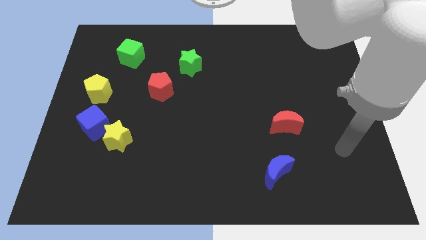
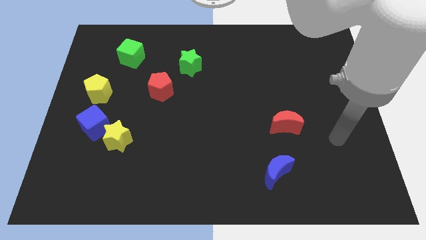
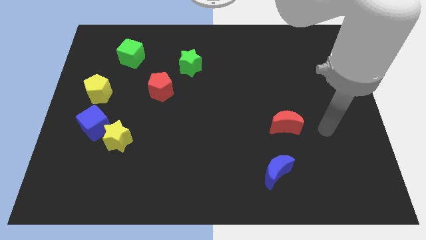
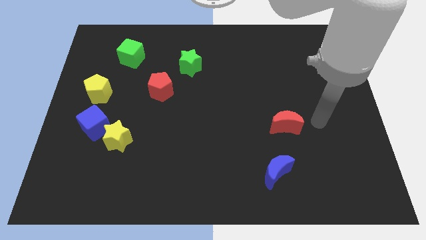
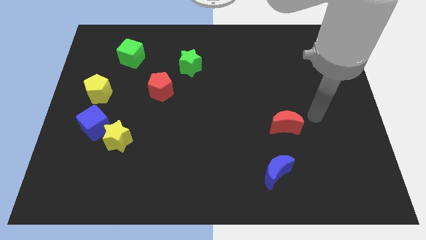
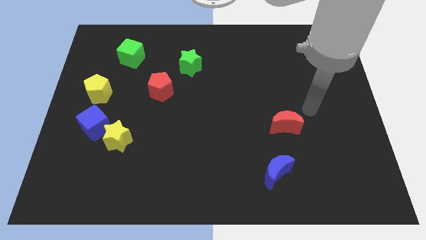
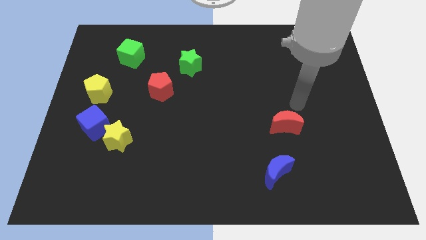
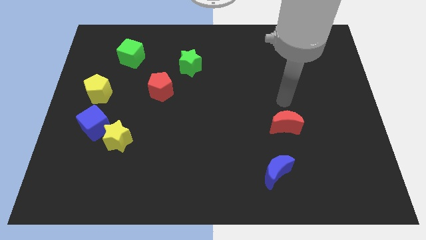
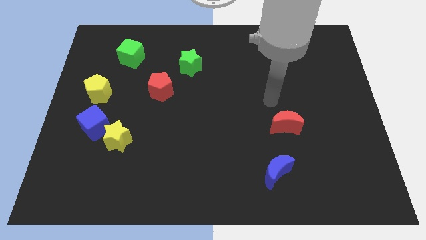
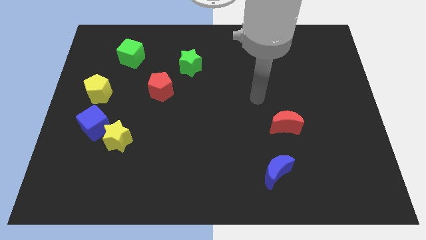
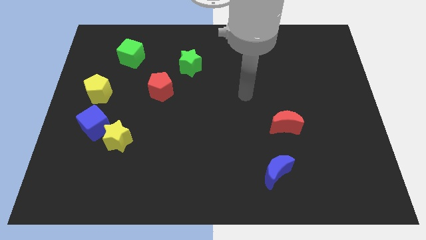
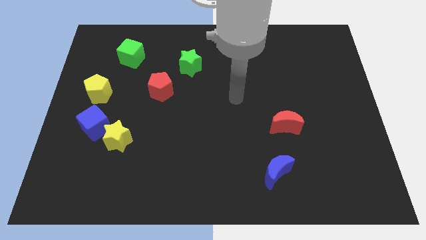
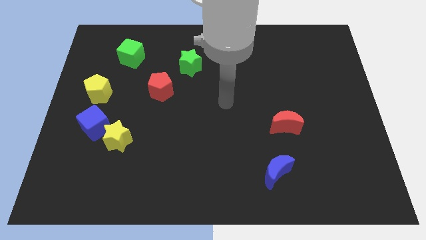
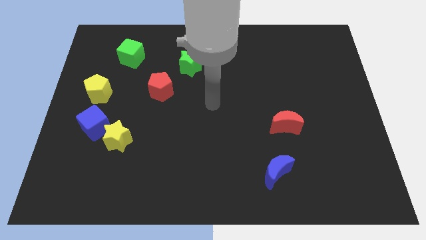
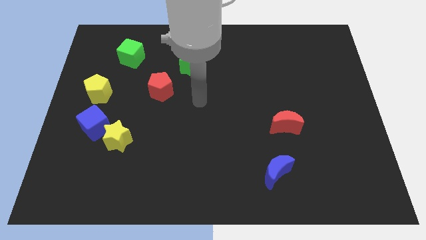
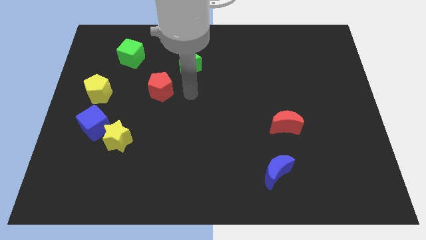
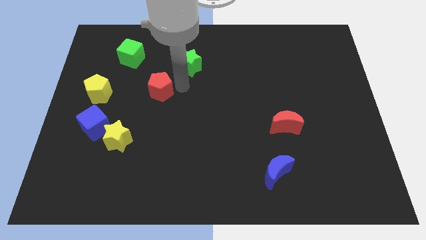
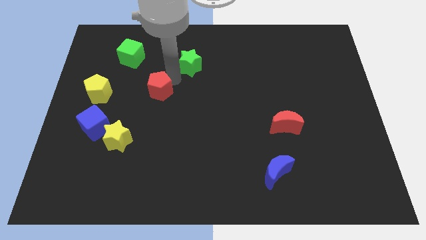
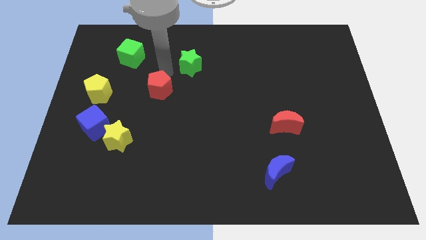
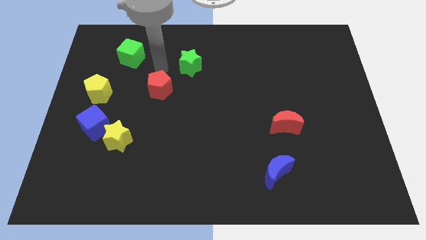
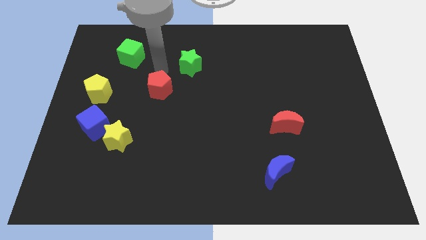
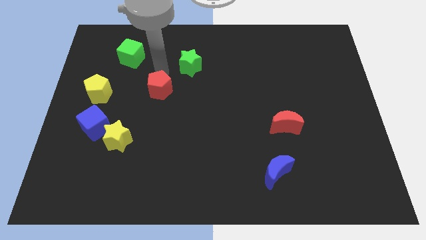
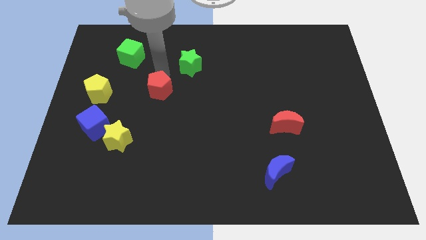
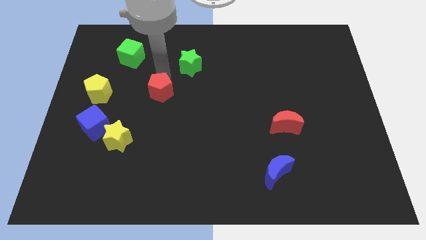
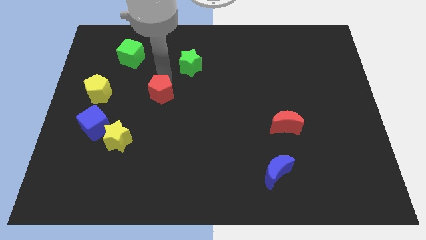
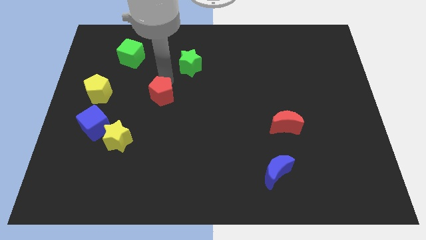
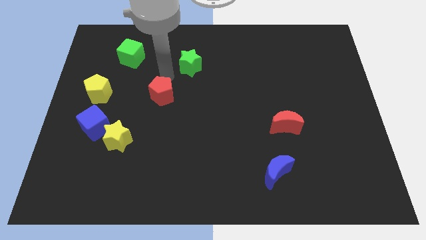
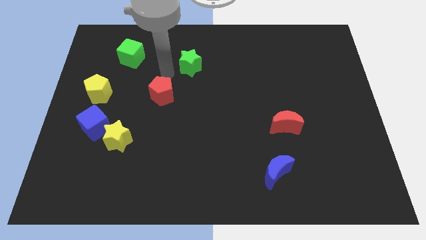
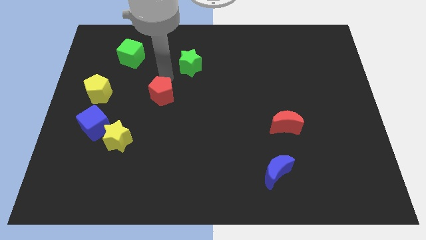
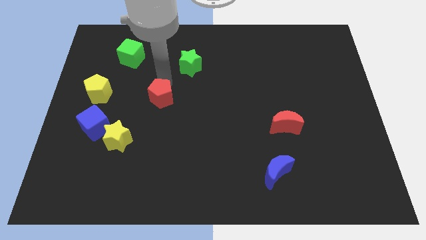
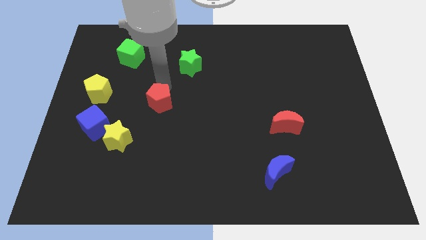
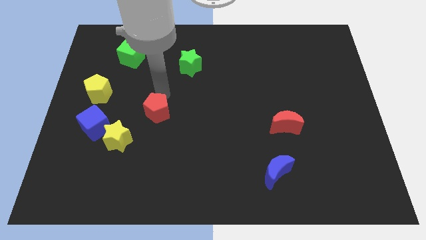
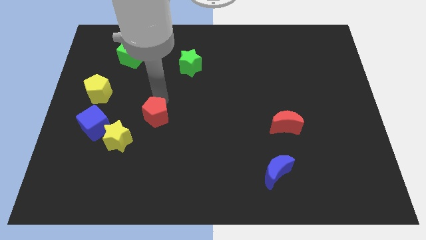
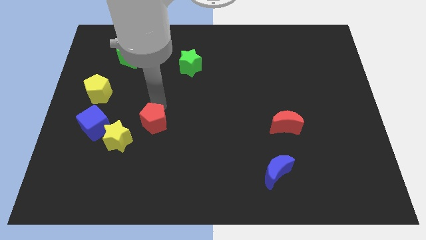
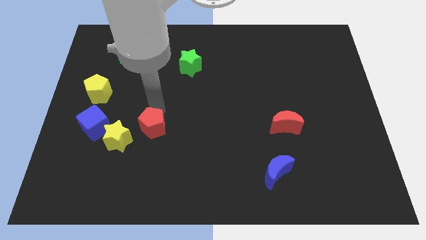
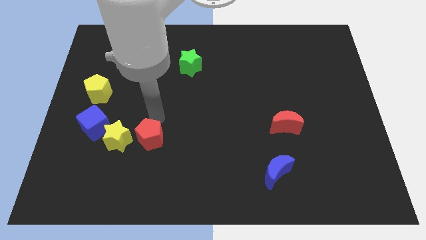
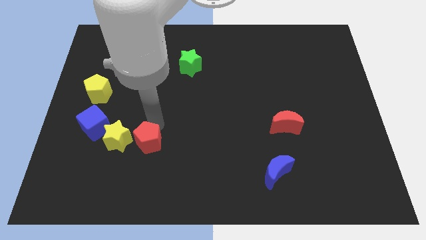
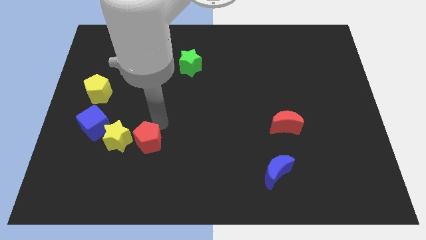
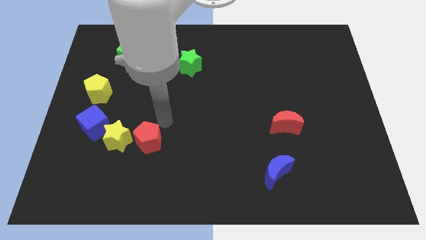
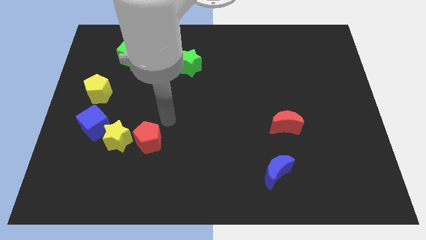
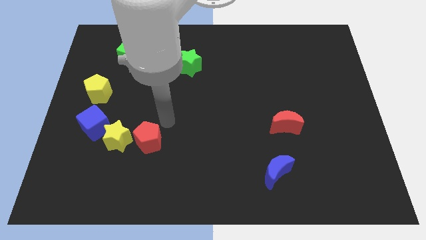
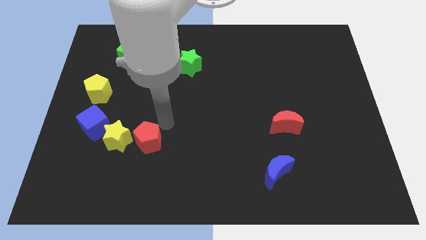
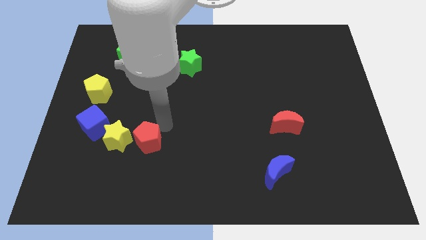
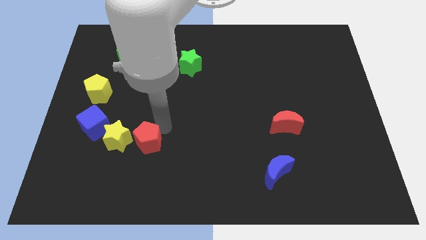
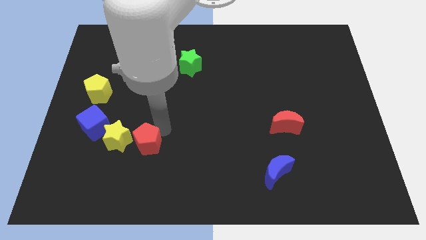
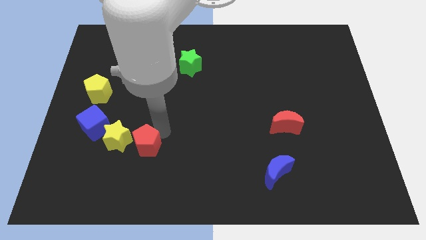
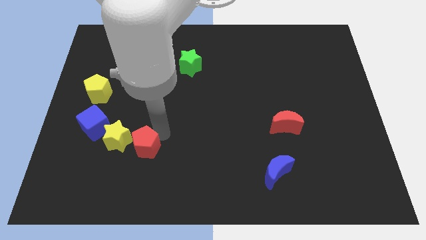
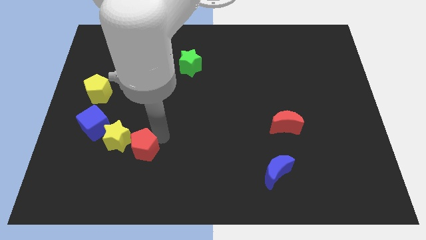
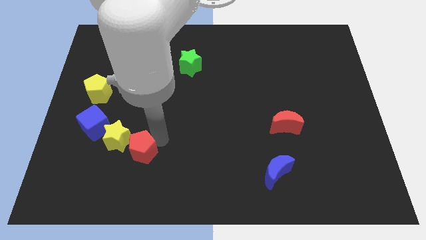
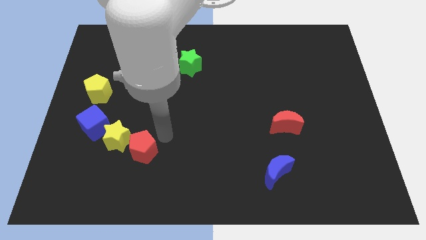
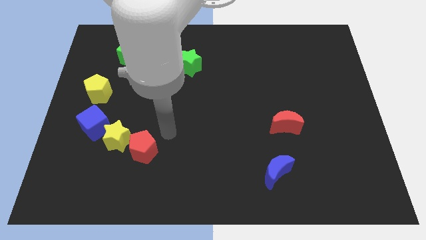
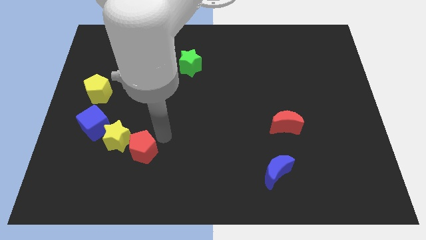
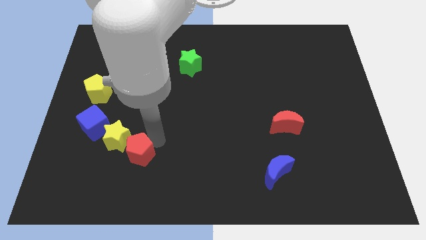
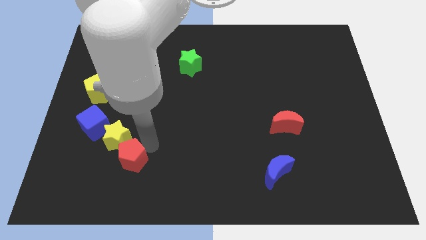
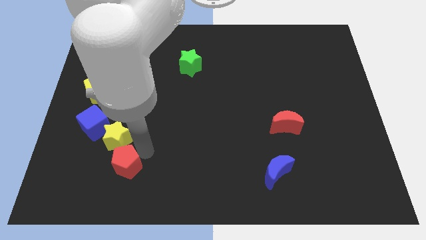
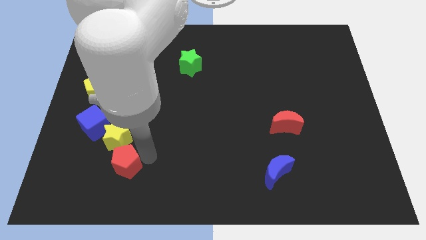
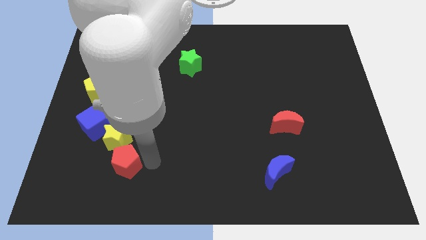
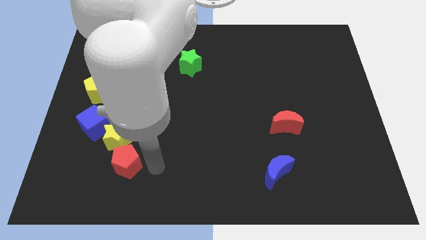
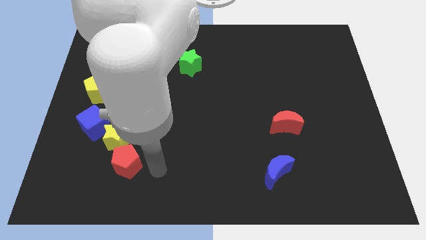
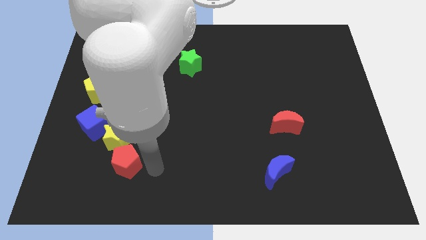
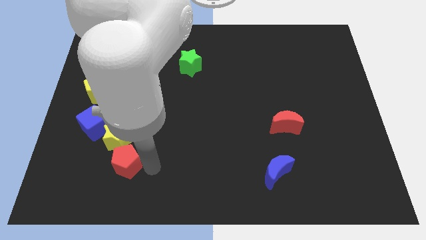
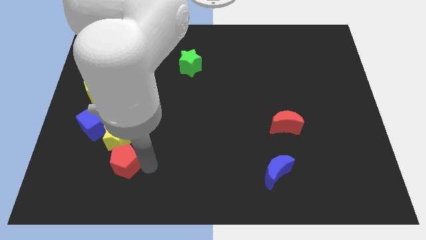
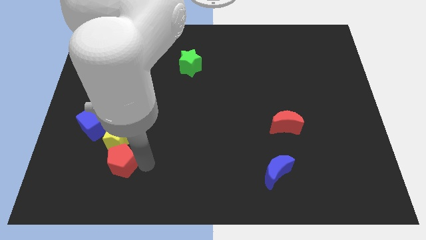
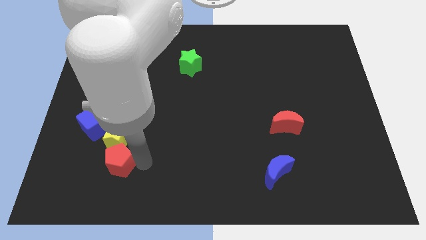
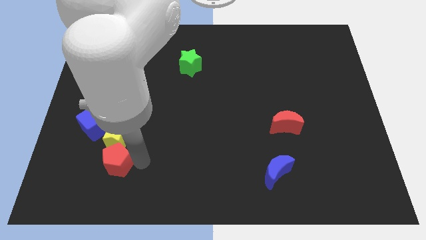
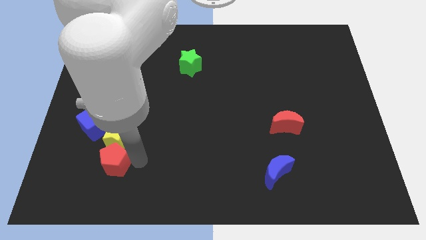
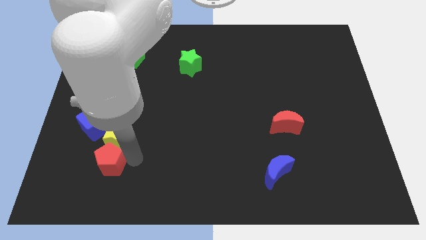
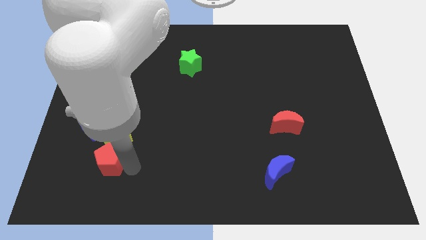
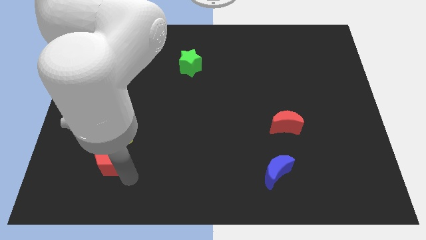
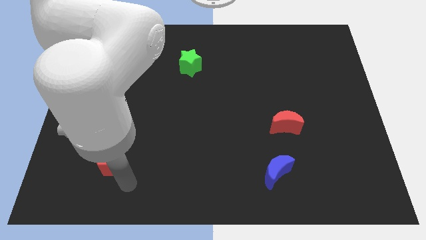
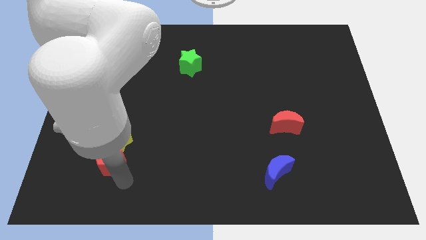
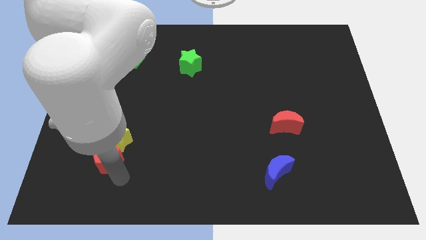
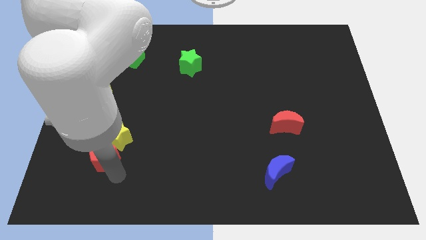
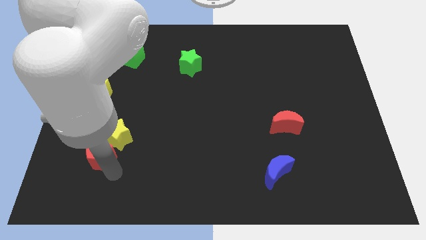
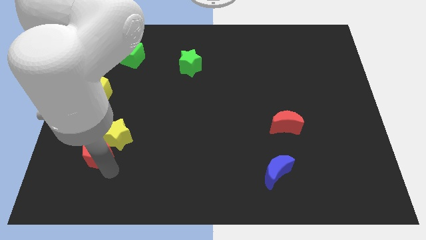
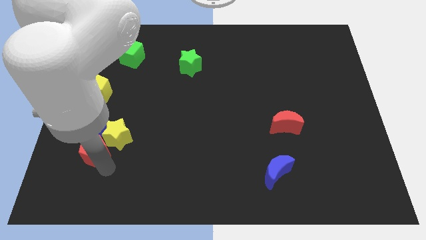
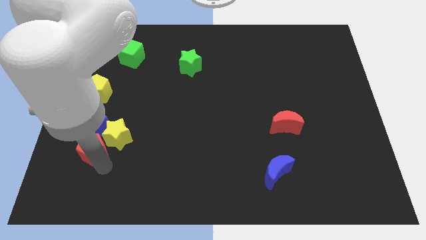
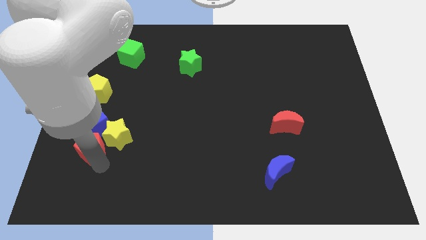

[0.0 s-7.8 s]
put the red pentagon to the bottom of the yellow pentagon

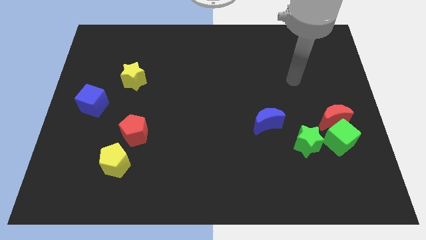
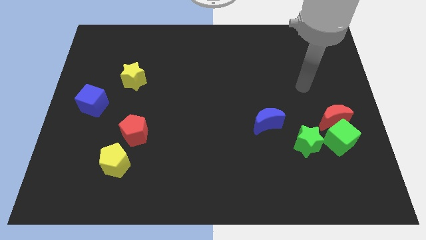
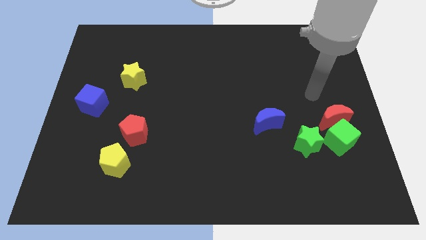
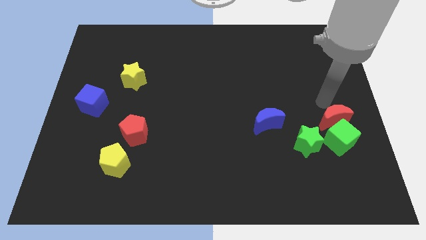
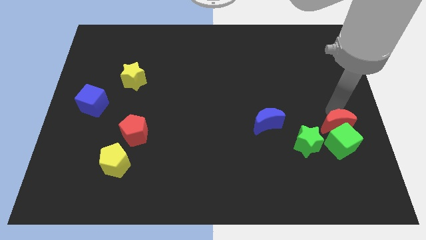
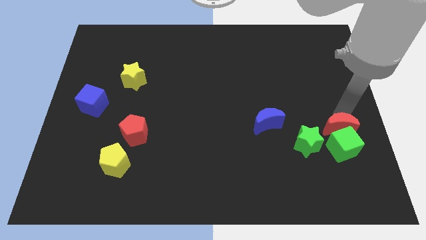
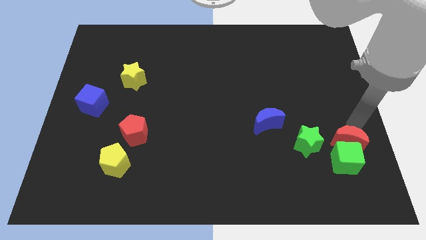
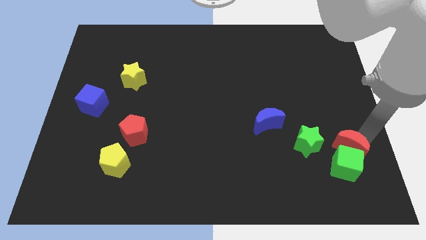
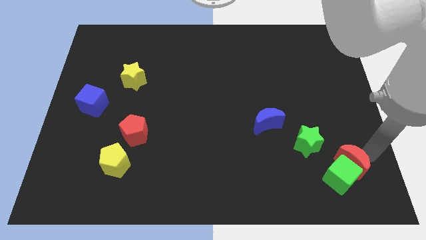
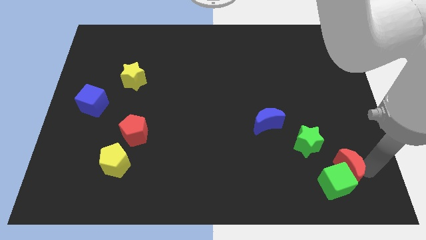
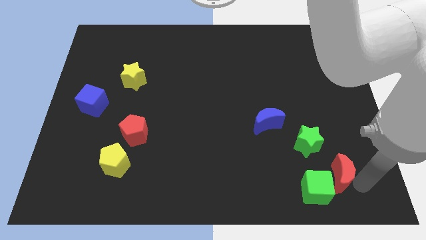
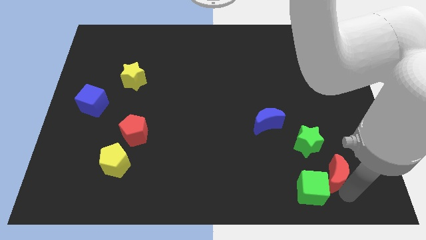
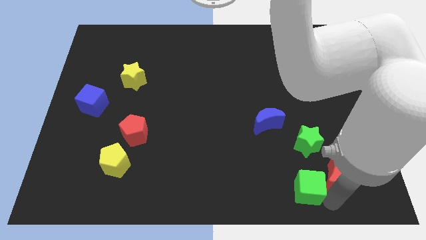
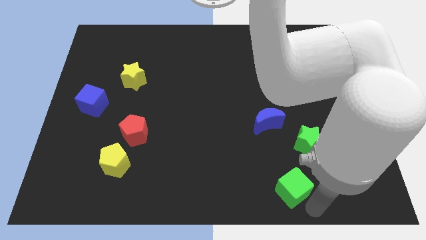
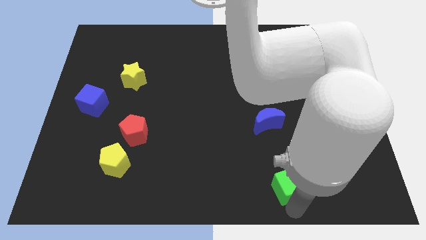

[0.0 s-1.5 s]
move the green cube to the bottom left side of the green star
